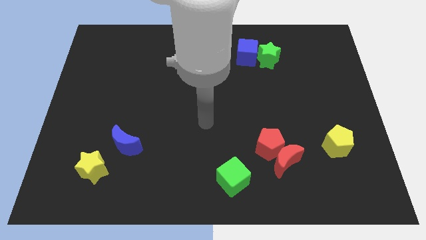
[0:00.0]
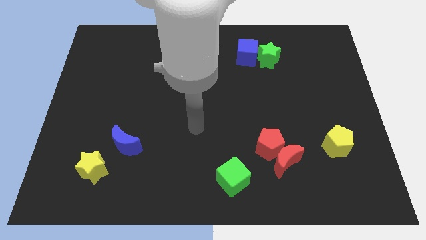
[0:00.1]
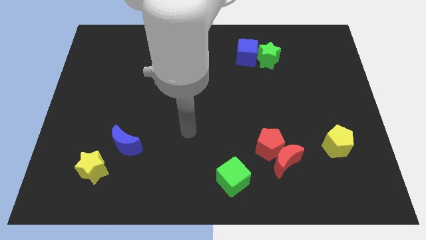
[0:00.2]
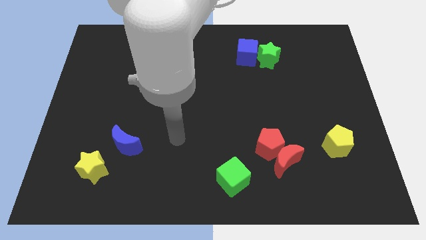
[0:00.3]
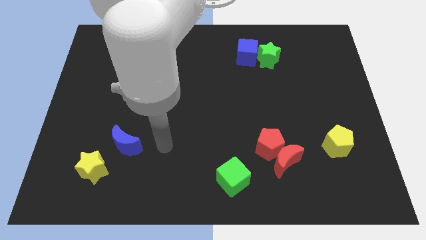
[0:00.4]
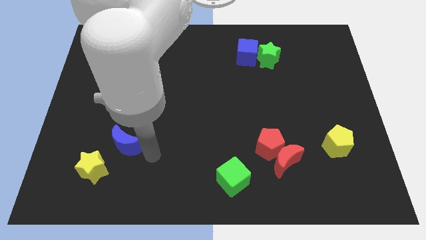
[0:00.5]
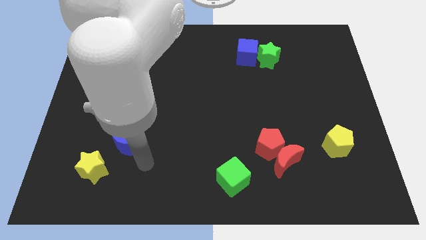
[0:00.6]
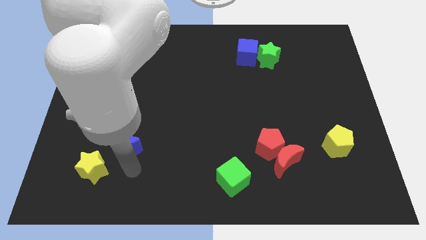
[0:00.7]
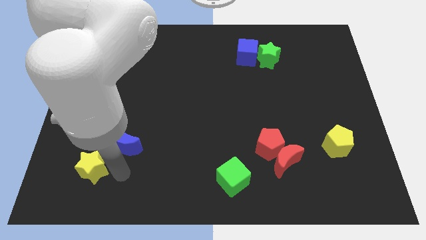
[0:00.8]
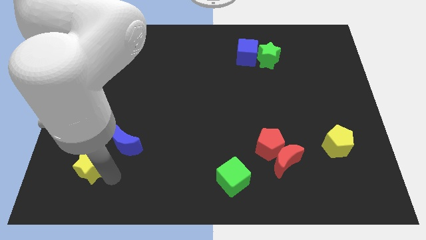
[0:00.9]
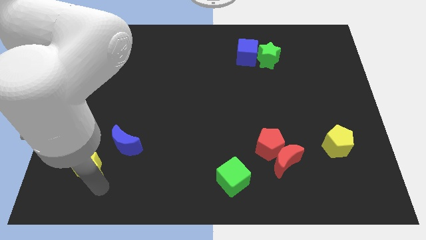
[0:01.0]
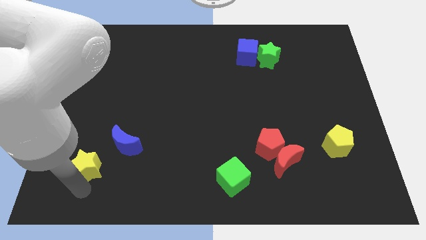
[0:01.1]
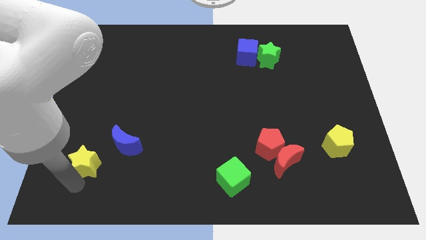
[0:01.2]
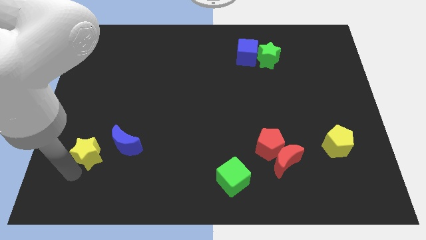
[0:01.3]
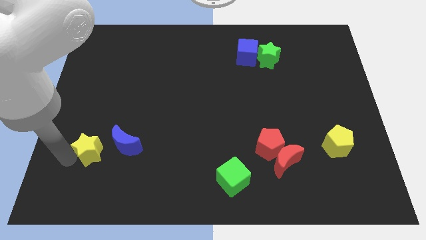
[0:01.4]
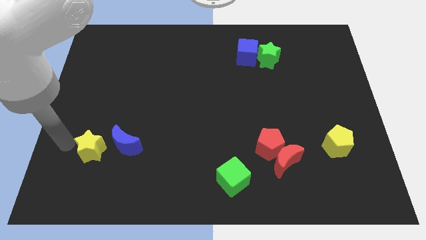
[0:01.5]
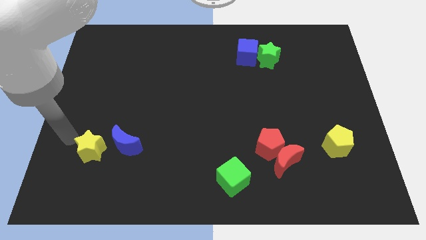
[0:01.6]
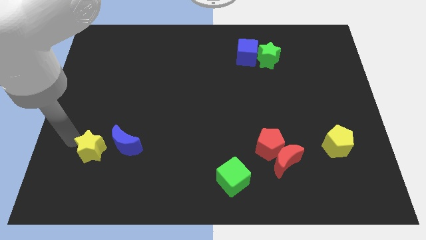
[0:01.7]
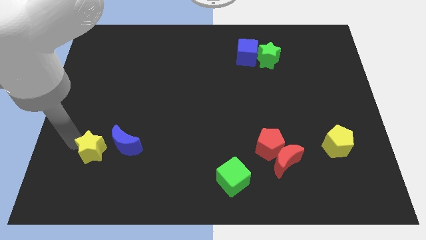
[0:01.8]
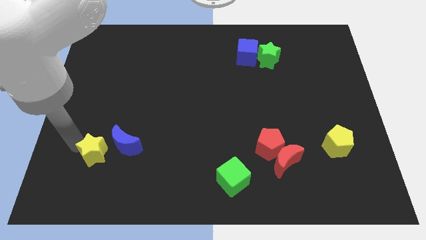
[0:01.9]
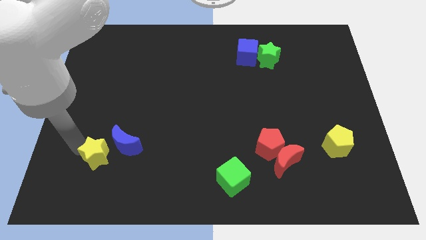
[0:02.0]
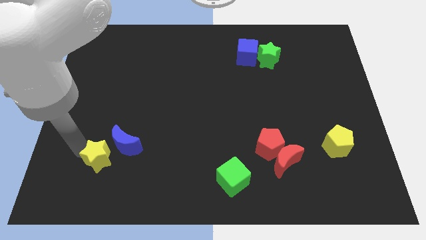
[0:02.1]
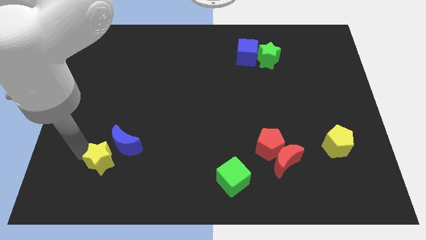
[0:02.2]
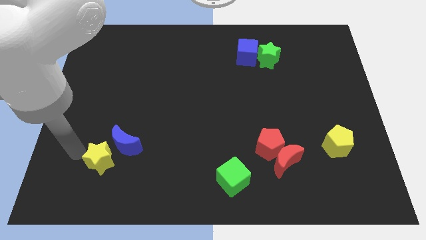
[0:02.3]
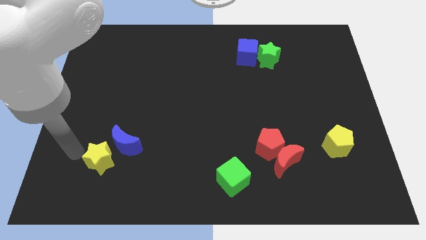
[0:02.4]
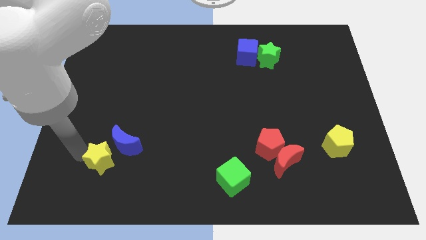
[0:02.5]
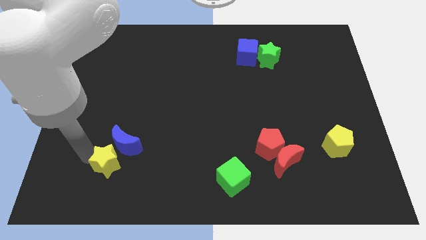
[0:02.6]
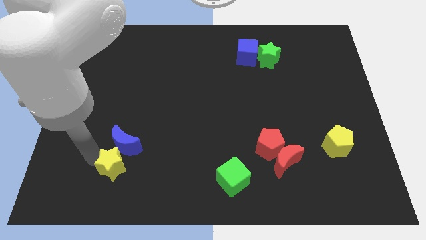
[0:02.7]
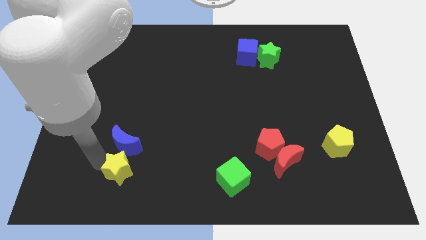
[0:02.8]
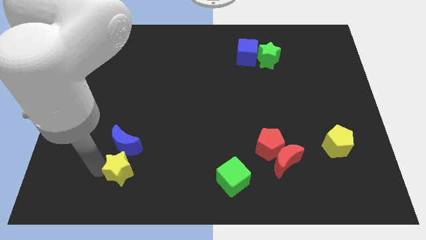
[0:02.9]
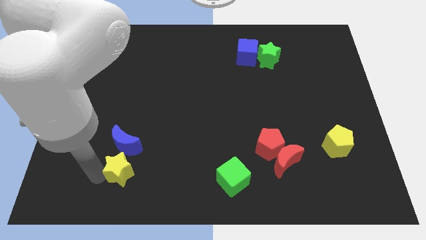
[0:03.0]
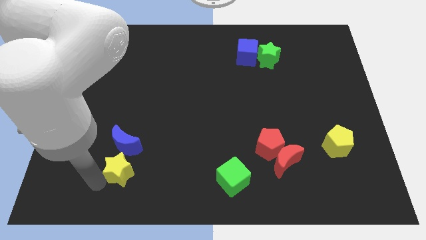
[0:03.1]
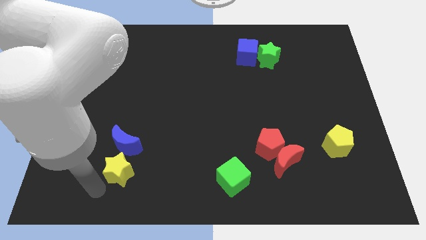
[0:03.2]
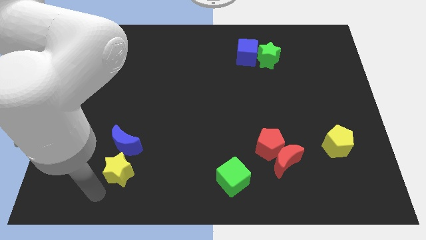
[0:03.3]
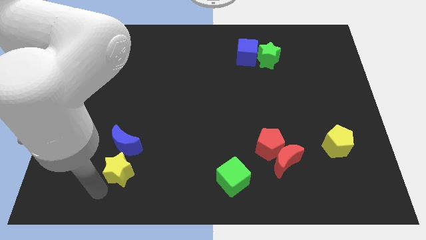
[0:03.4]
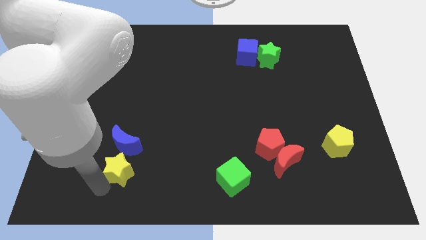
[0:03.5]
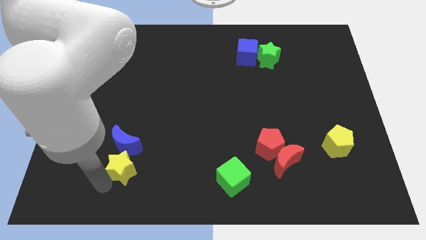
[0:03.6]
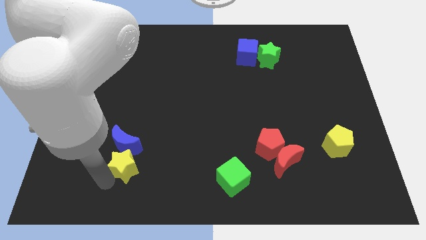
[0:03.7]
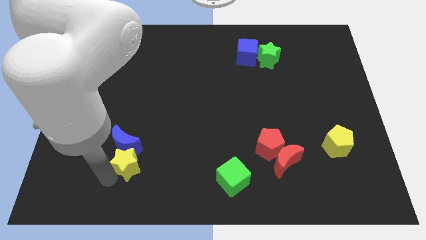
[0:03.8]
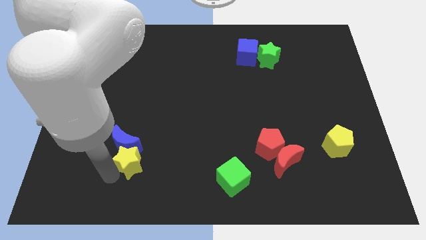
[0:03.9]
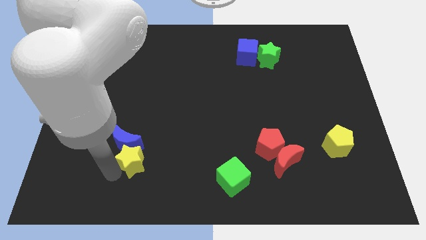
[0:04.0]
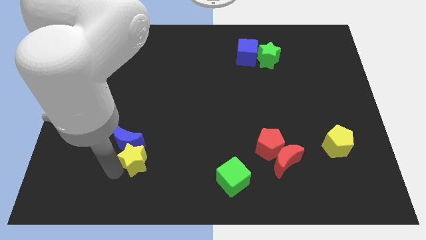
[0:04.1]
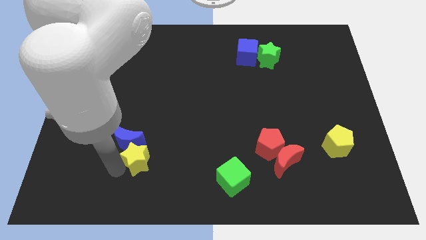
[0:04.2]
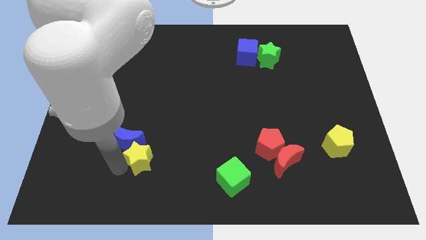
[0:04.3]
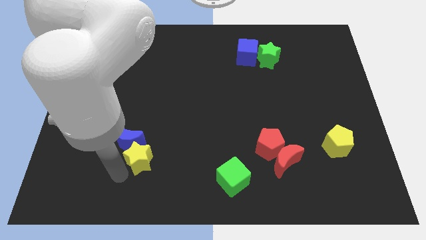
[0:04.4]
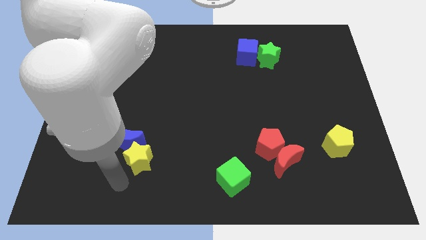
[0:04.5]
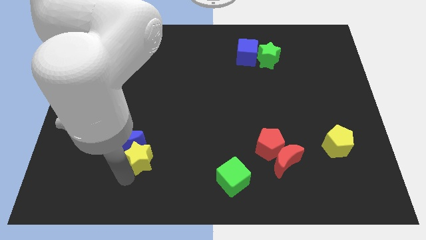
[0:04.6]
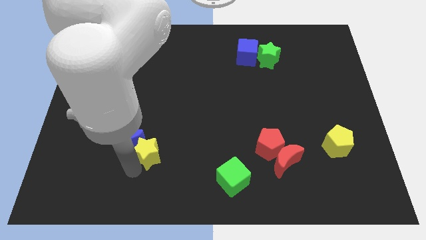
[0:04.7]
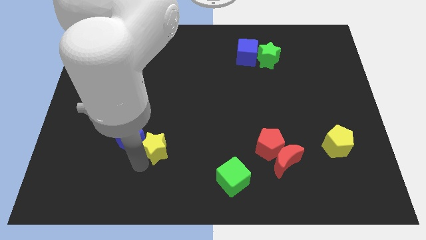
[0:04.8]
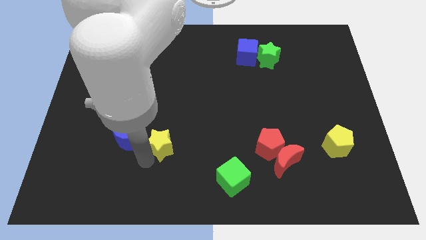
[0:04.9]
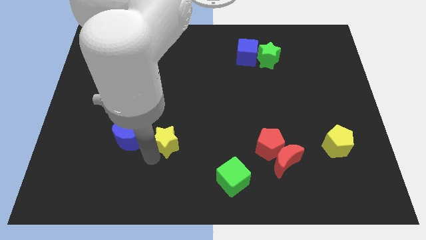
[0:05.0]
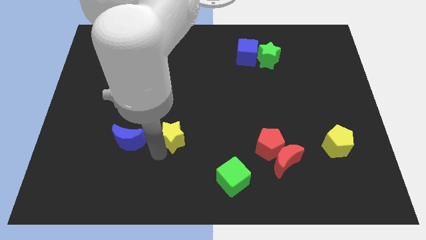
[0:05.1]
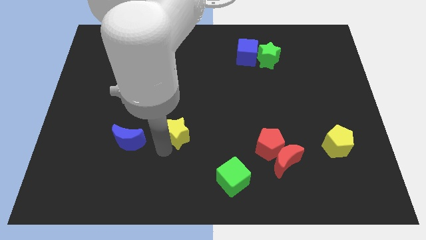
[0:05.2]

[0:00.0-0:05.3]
move the yellow star to the middle
